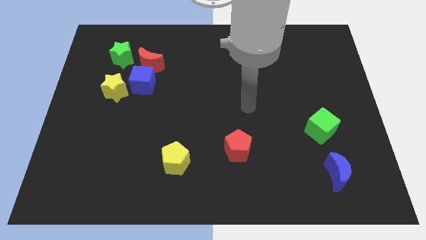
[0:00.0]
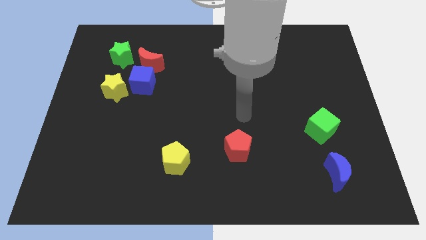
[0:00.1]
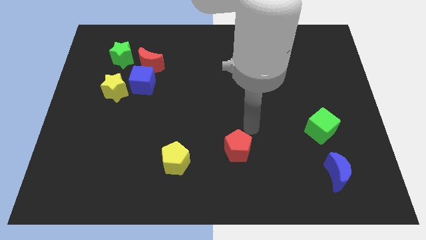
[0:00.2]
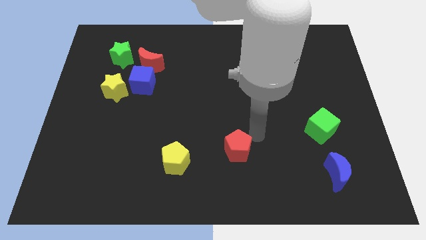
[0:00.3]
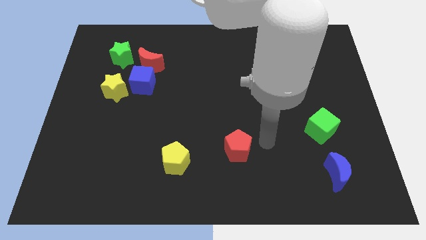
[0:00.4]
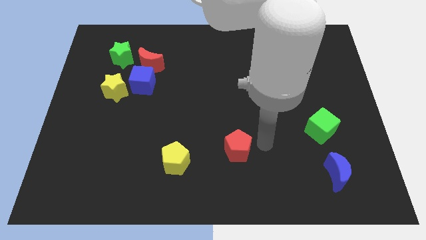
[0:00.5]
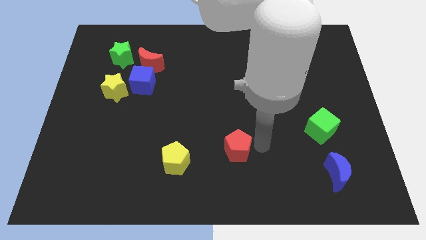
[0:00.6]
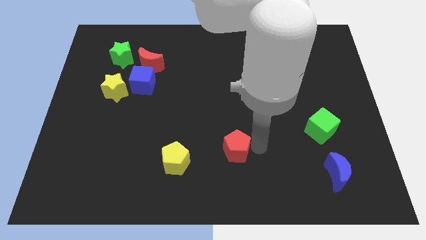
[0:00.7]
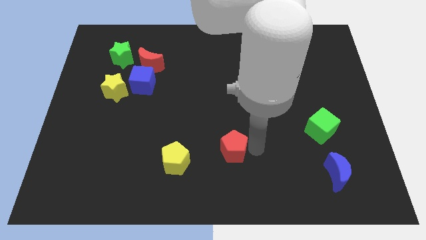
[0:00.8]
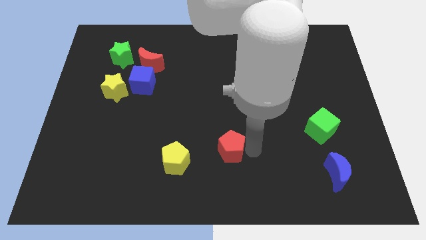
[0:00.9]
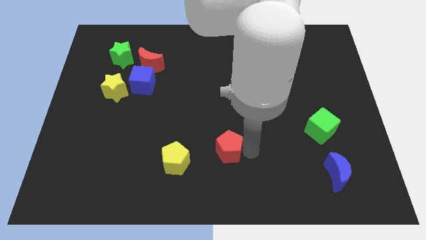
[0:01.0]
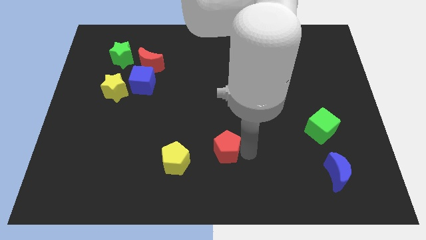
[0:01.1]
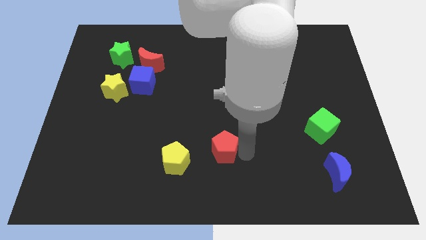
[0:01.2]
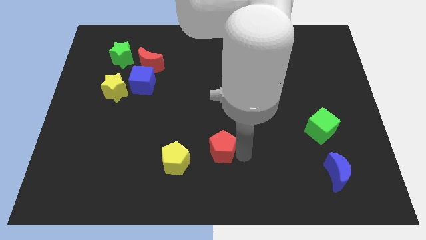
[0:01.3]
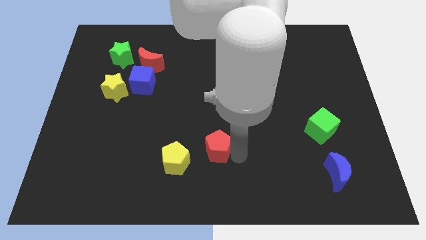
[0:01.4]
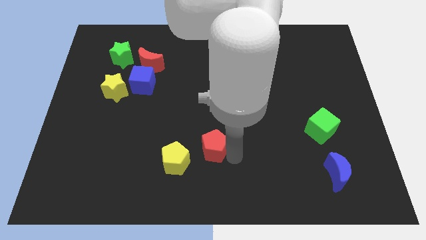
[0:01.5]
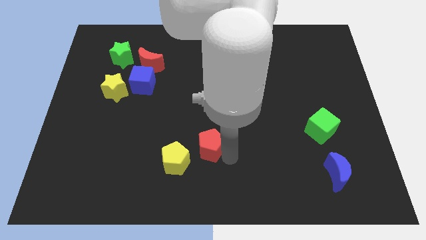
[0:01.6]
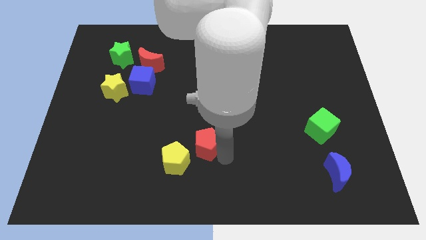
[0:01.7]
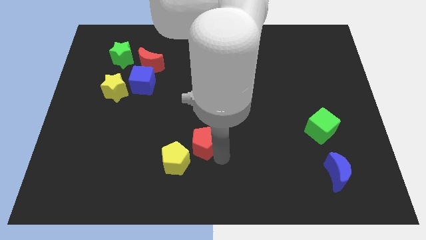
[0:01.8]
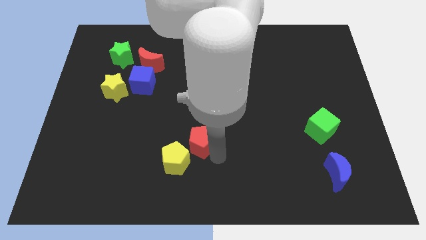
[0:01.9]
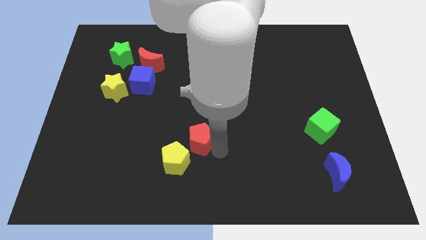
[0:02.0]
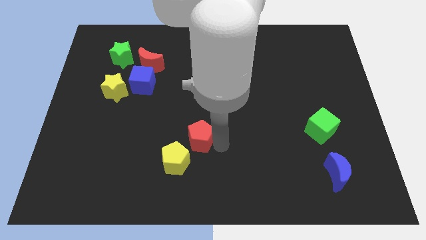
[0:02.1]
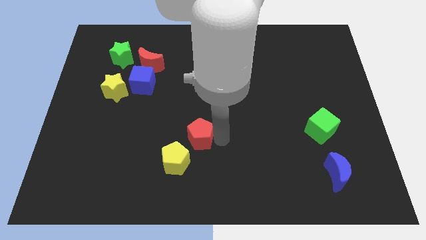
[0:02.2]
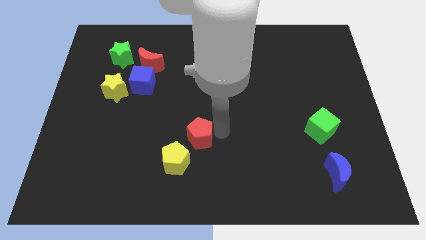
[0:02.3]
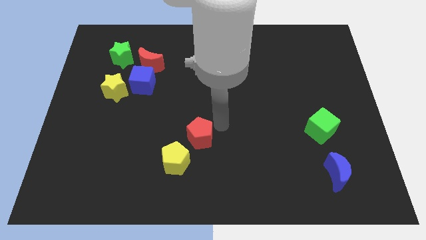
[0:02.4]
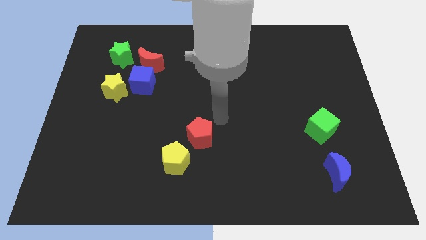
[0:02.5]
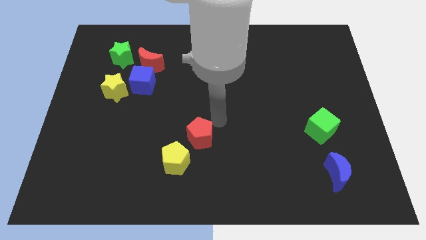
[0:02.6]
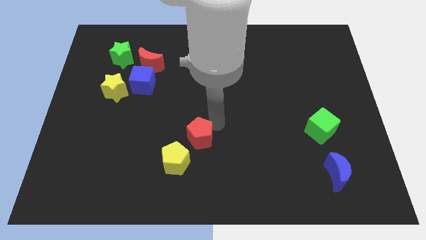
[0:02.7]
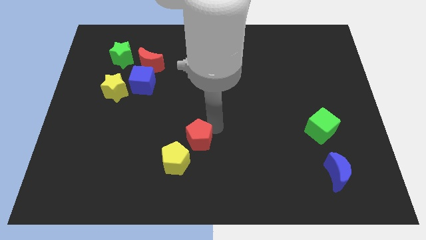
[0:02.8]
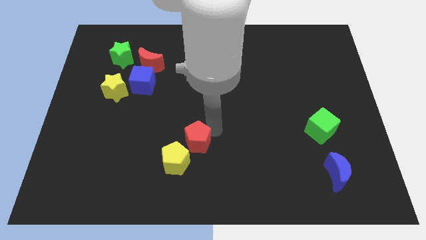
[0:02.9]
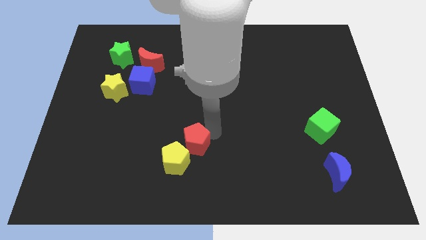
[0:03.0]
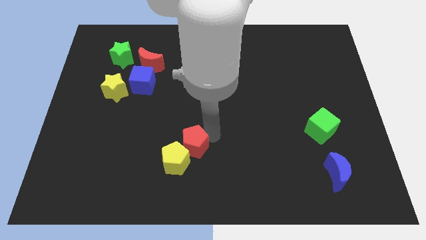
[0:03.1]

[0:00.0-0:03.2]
slide the red pentagon to the yellow pentagon

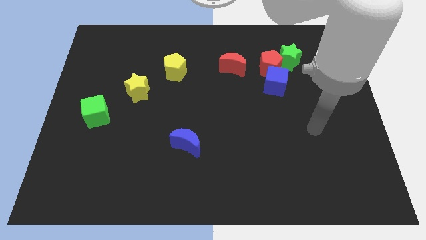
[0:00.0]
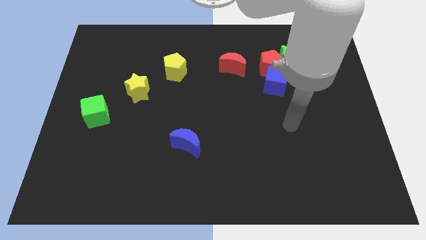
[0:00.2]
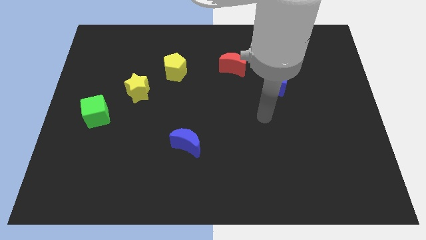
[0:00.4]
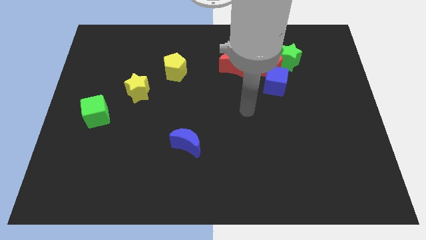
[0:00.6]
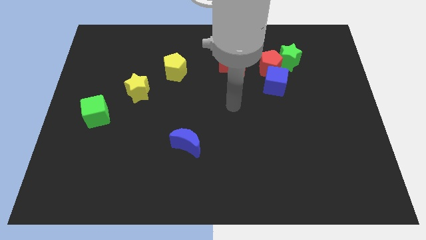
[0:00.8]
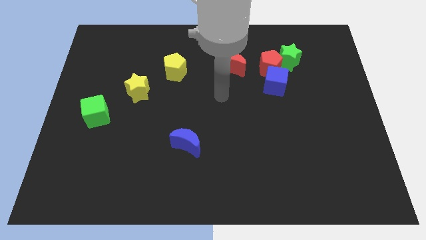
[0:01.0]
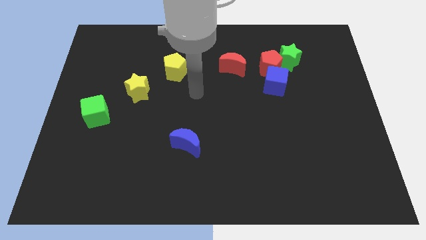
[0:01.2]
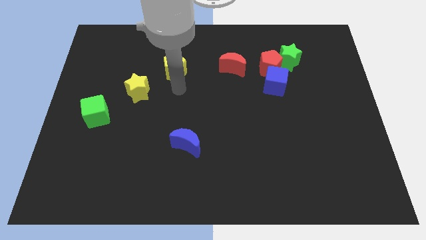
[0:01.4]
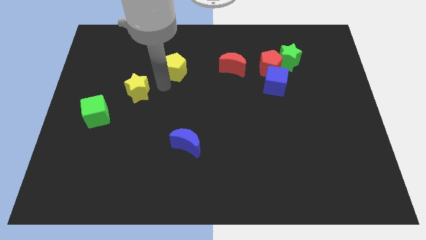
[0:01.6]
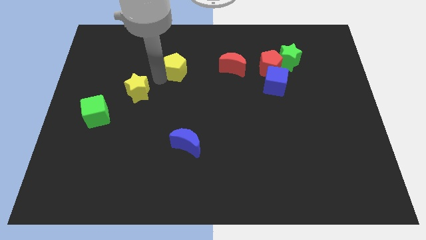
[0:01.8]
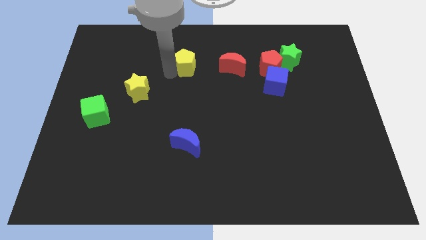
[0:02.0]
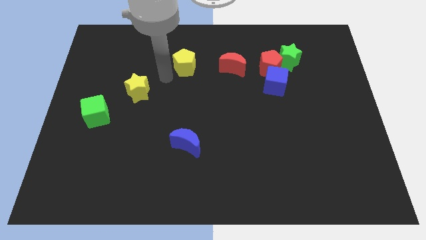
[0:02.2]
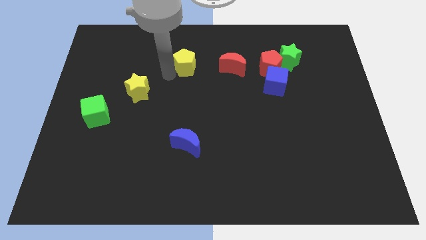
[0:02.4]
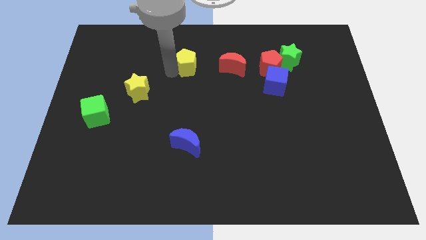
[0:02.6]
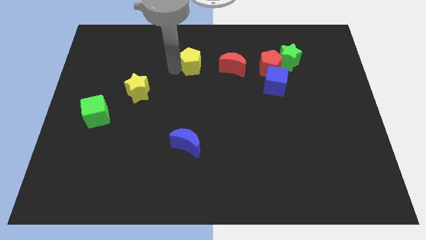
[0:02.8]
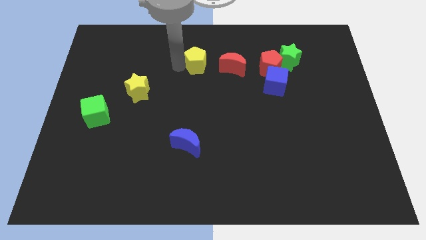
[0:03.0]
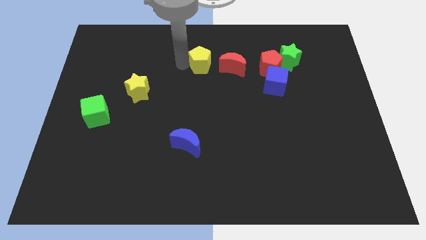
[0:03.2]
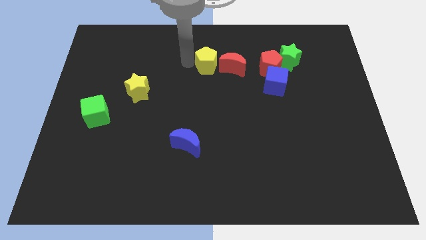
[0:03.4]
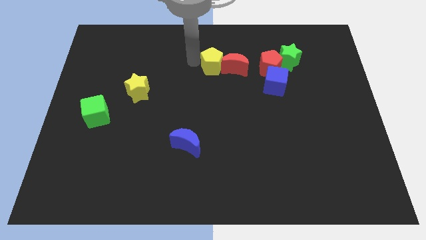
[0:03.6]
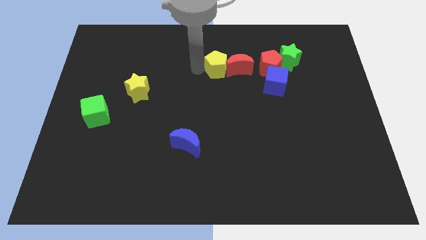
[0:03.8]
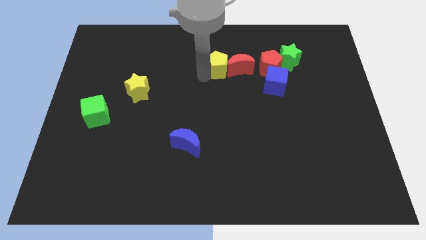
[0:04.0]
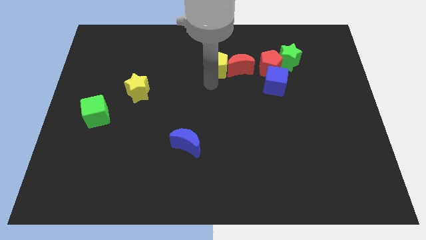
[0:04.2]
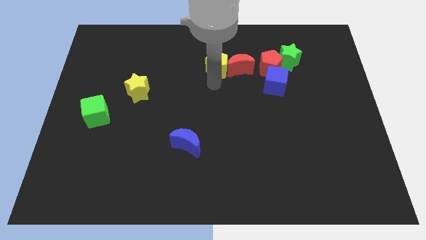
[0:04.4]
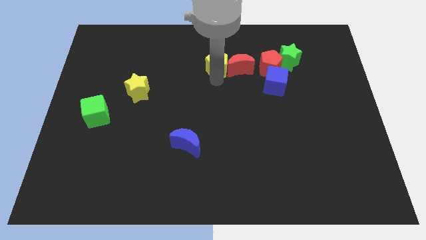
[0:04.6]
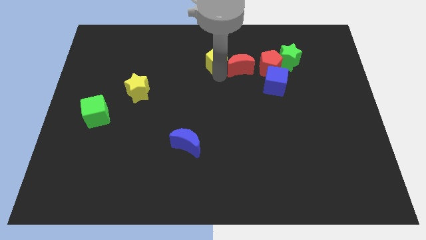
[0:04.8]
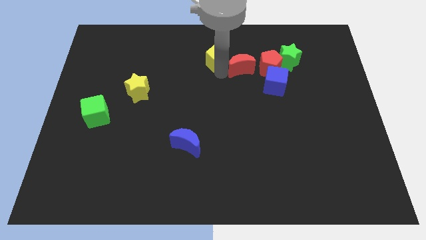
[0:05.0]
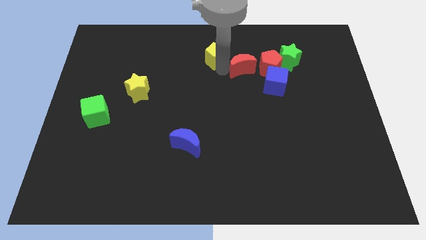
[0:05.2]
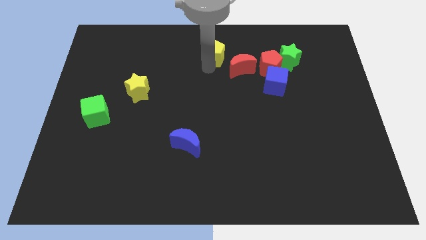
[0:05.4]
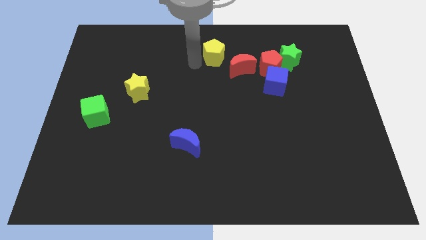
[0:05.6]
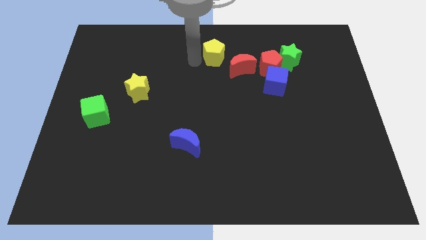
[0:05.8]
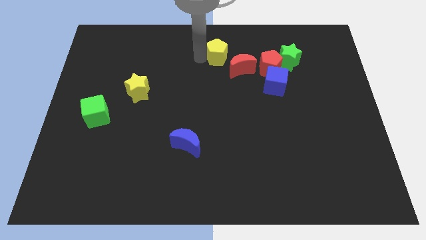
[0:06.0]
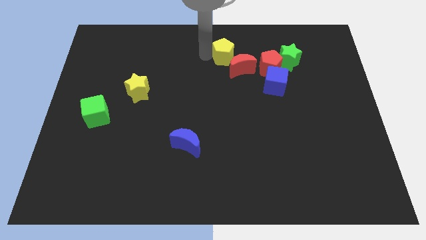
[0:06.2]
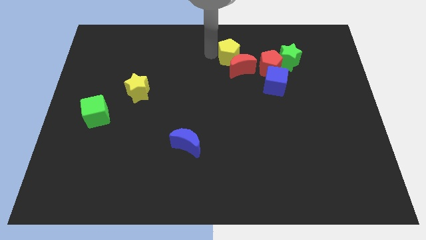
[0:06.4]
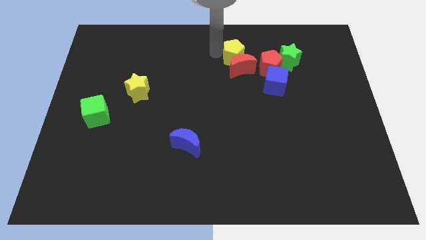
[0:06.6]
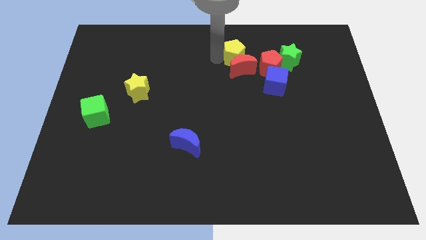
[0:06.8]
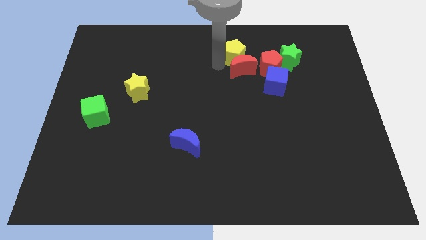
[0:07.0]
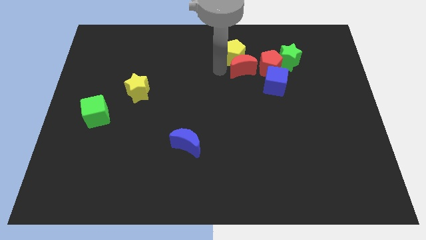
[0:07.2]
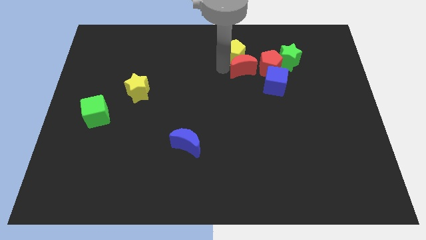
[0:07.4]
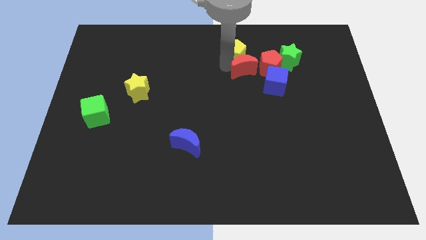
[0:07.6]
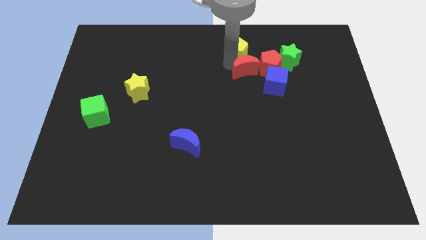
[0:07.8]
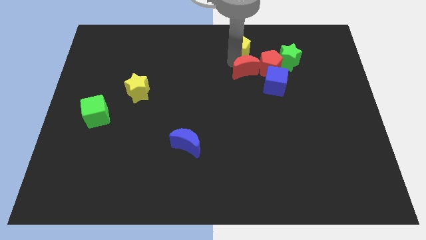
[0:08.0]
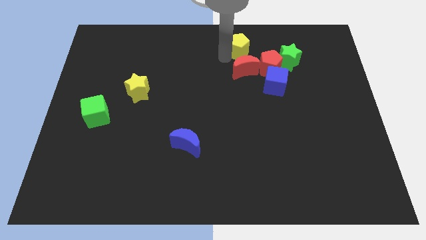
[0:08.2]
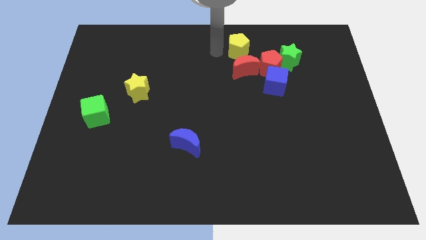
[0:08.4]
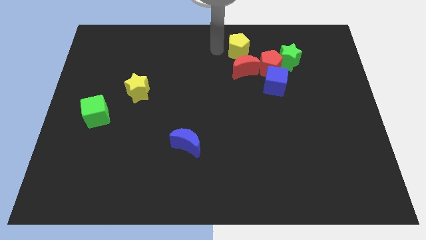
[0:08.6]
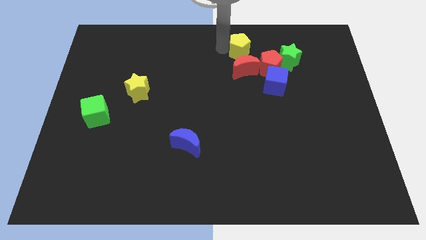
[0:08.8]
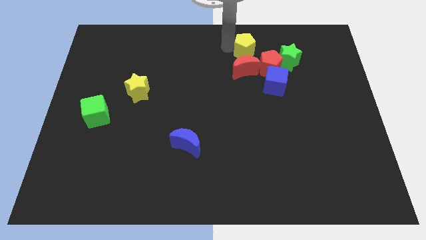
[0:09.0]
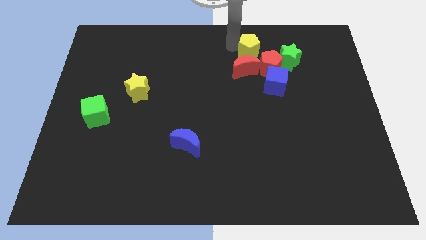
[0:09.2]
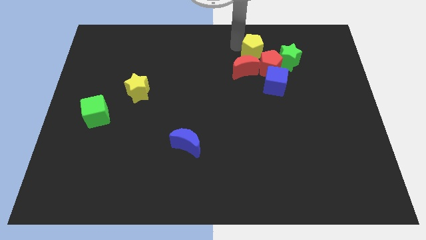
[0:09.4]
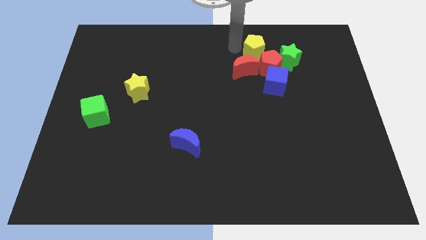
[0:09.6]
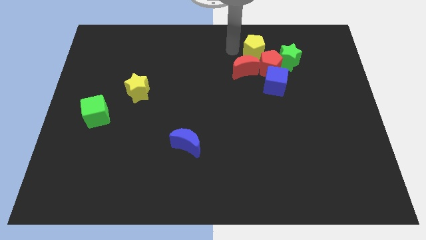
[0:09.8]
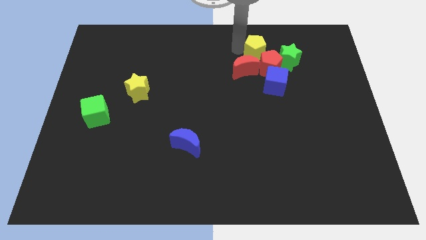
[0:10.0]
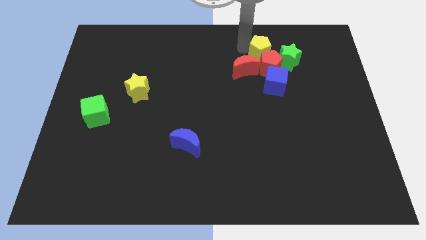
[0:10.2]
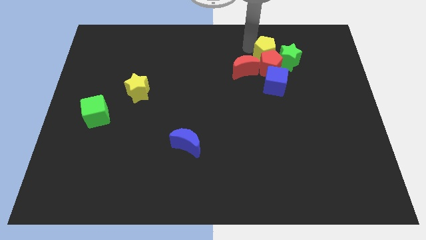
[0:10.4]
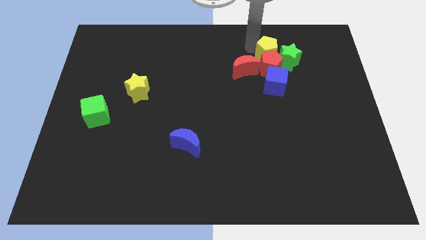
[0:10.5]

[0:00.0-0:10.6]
put the yellow pentagon to the green star
